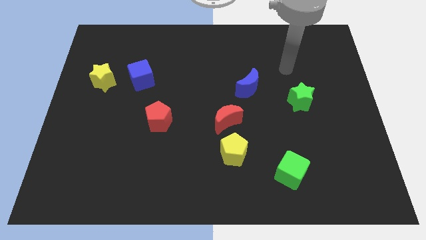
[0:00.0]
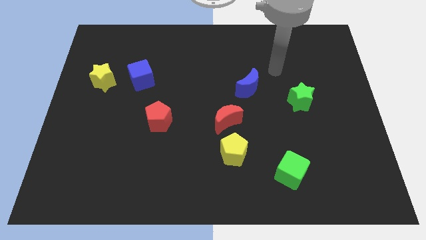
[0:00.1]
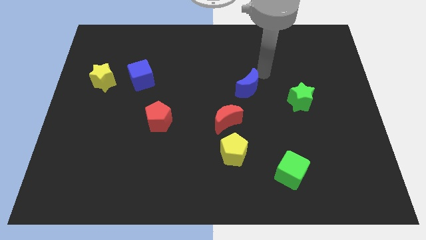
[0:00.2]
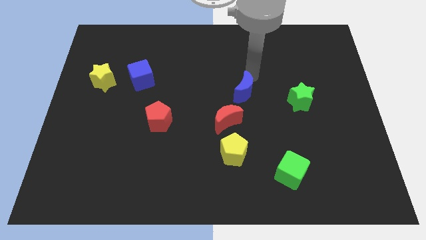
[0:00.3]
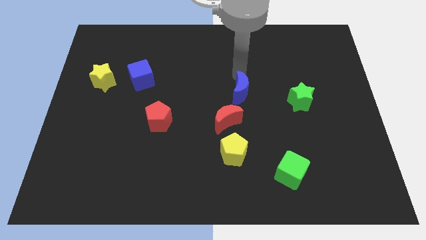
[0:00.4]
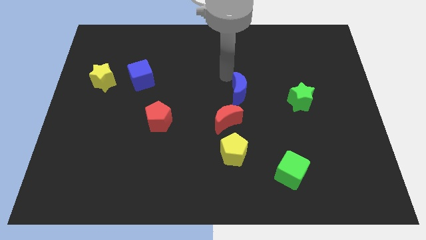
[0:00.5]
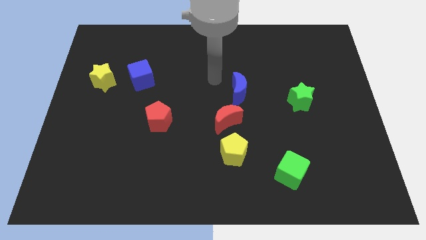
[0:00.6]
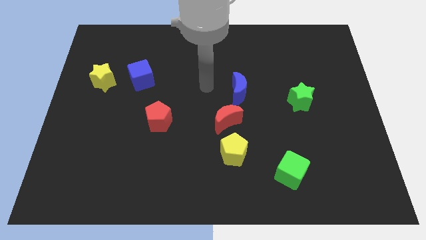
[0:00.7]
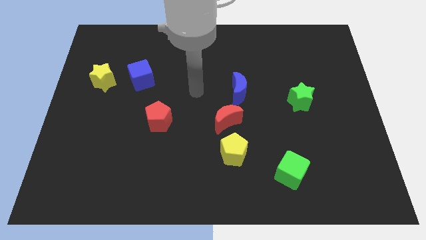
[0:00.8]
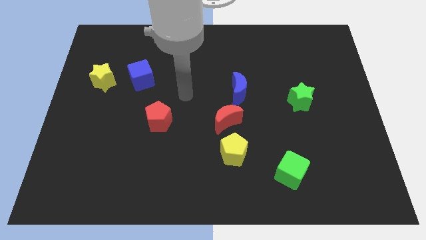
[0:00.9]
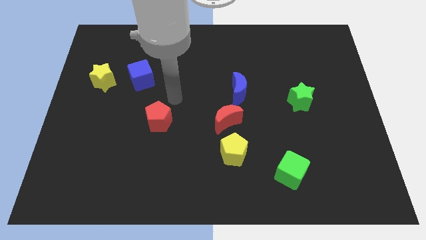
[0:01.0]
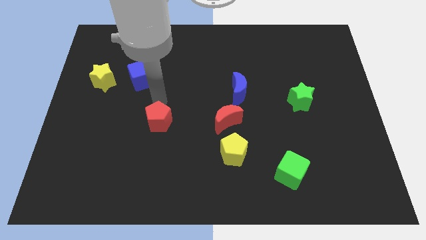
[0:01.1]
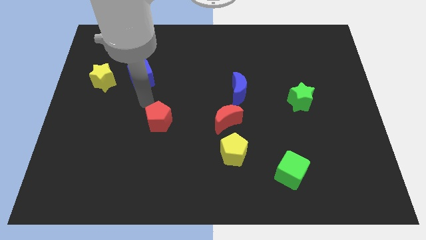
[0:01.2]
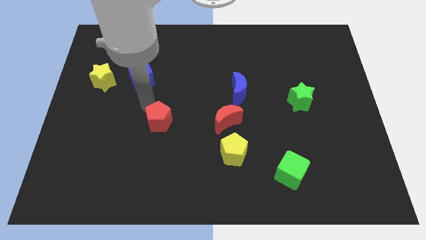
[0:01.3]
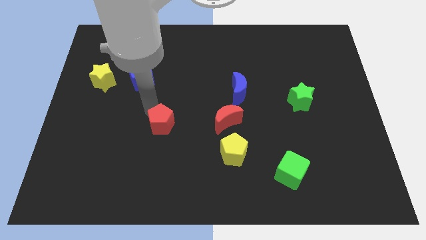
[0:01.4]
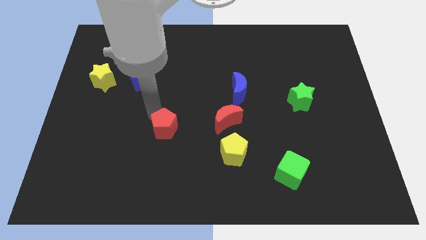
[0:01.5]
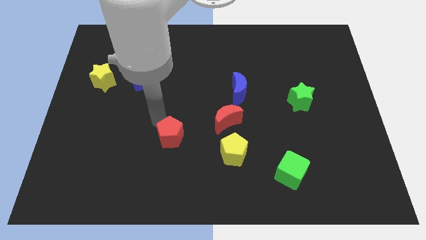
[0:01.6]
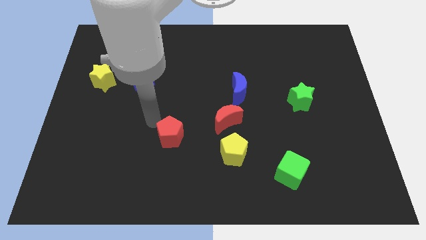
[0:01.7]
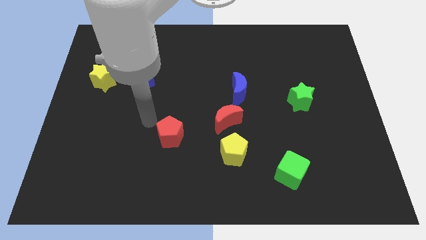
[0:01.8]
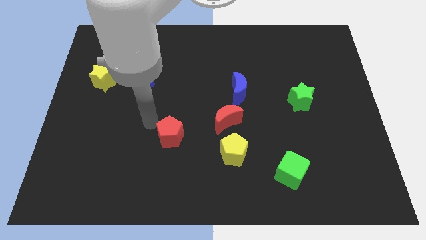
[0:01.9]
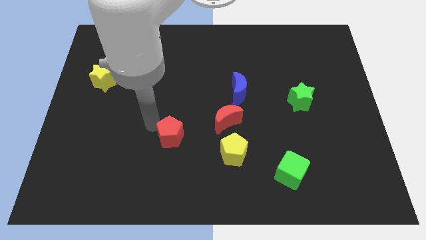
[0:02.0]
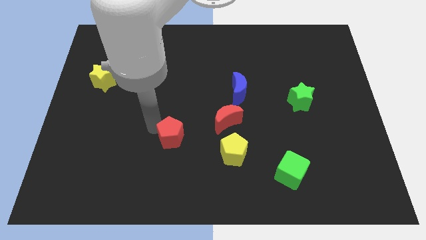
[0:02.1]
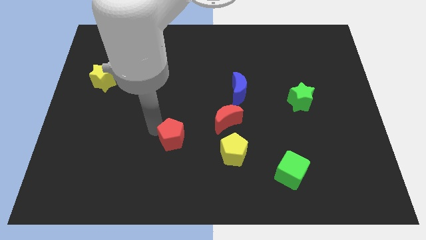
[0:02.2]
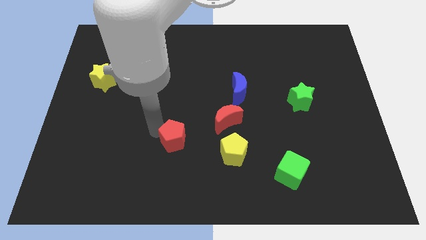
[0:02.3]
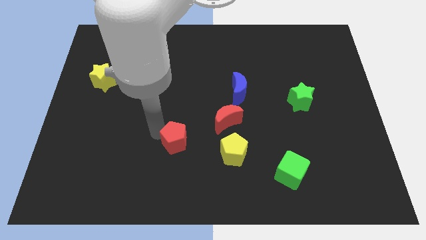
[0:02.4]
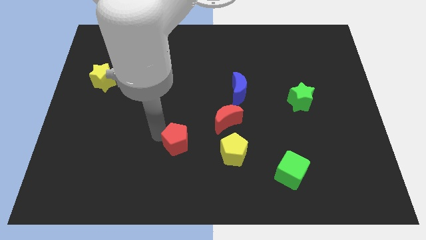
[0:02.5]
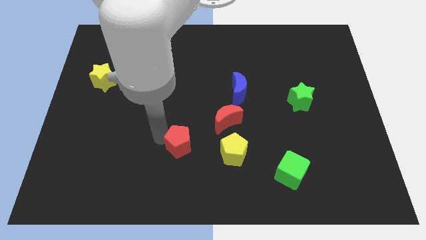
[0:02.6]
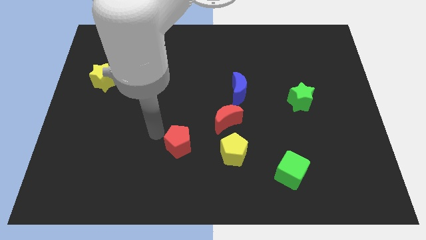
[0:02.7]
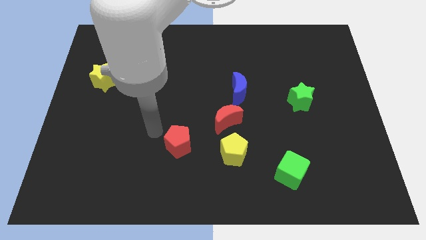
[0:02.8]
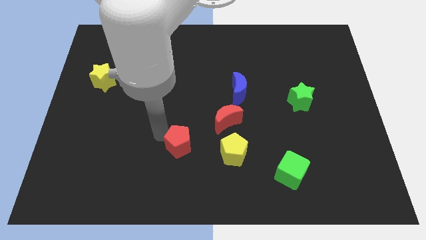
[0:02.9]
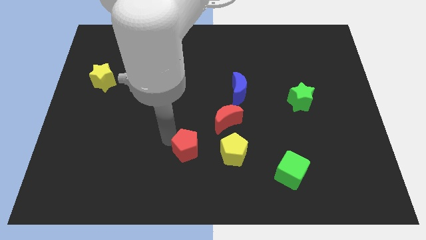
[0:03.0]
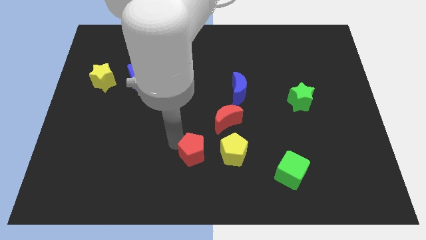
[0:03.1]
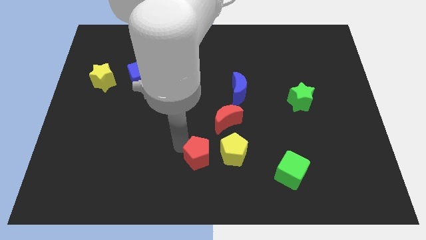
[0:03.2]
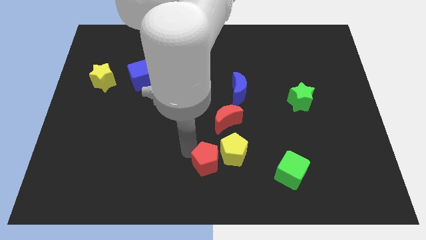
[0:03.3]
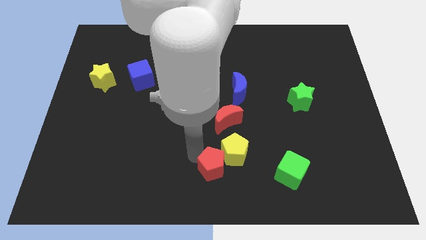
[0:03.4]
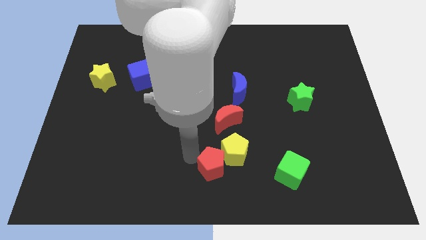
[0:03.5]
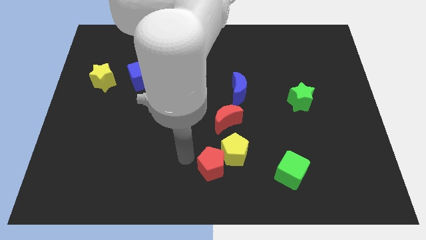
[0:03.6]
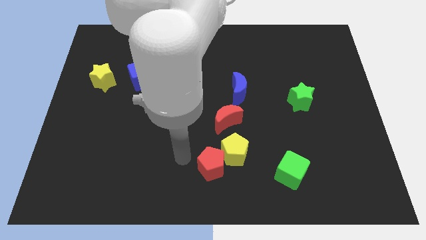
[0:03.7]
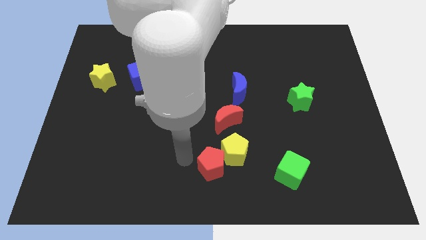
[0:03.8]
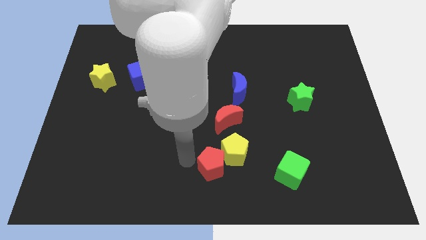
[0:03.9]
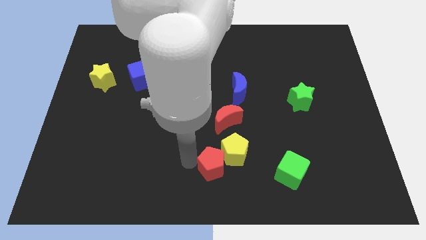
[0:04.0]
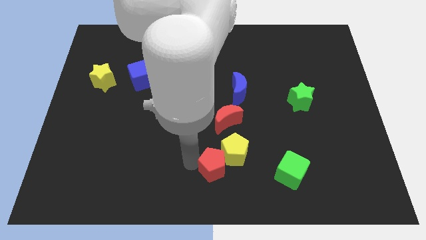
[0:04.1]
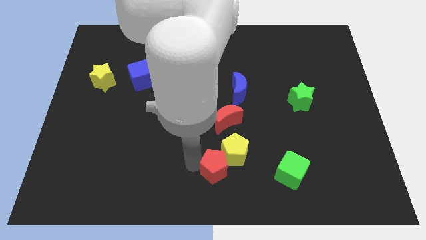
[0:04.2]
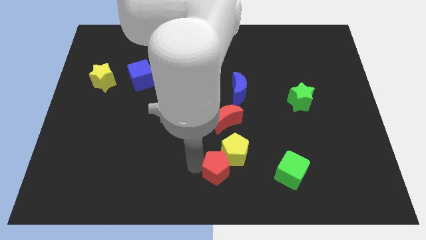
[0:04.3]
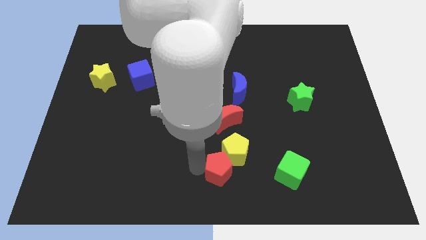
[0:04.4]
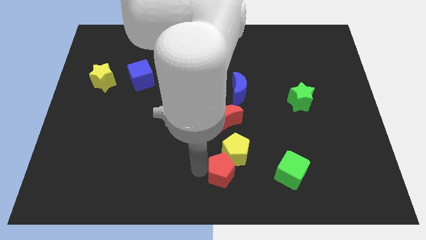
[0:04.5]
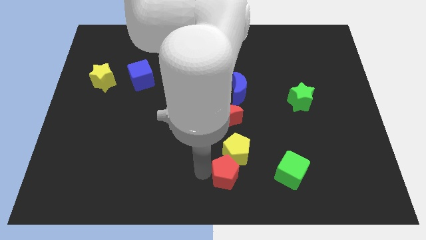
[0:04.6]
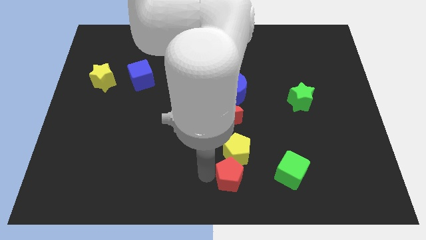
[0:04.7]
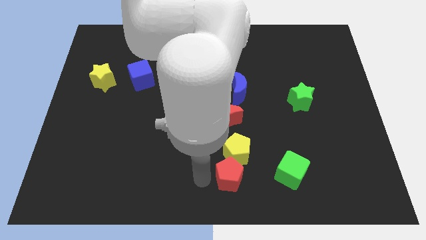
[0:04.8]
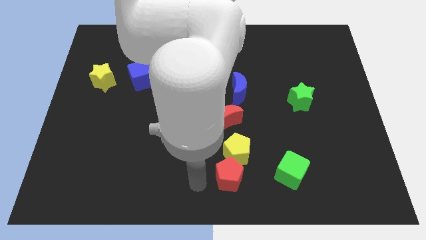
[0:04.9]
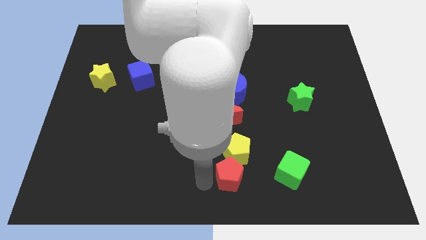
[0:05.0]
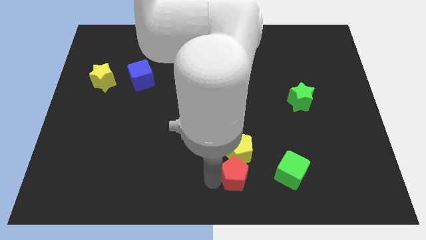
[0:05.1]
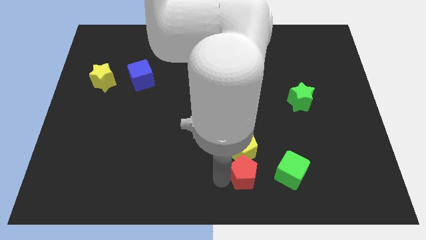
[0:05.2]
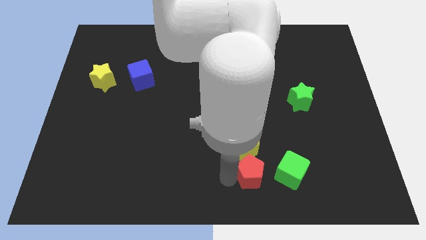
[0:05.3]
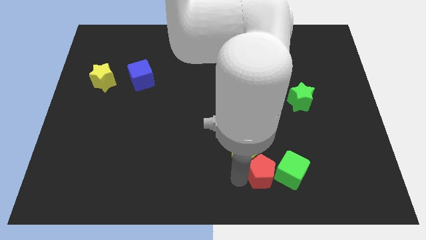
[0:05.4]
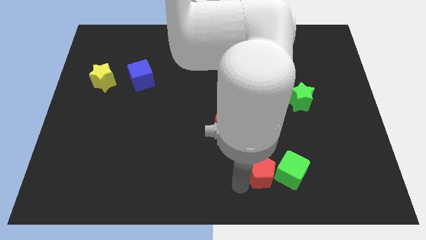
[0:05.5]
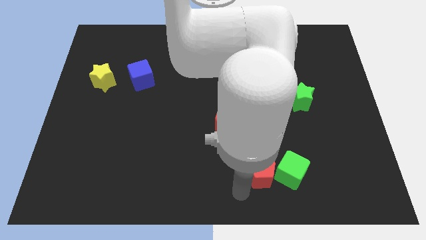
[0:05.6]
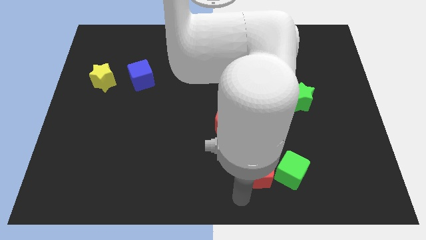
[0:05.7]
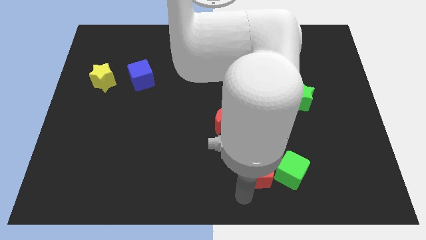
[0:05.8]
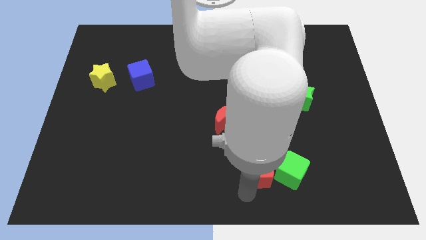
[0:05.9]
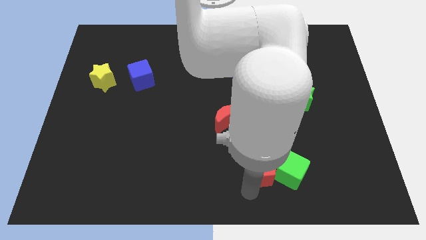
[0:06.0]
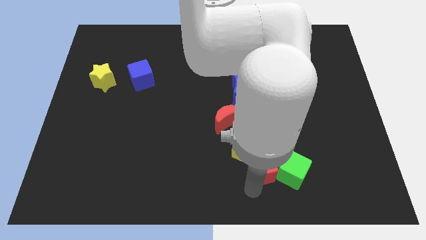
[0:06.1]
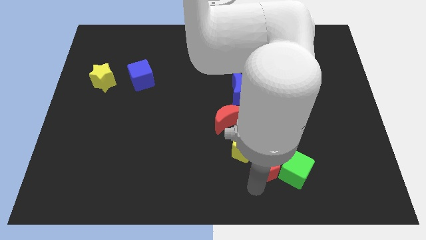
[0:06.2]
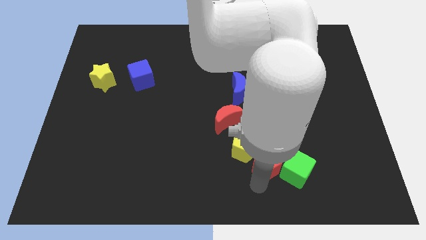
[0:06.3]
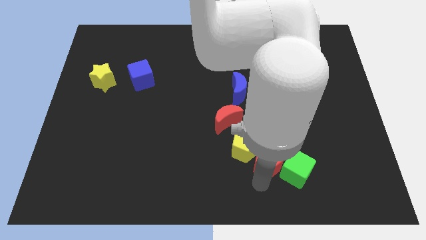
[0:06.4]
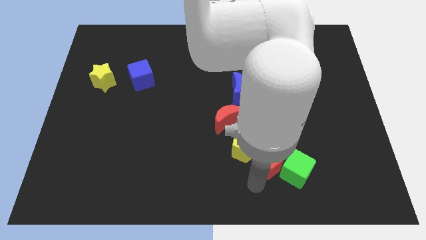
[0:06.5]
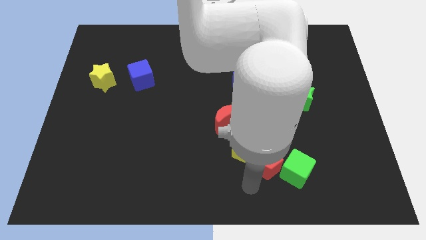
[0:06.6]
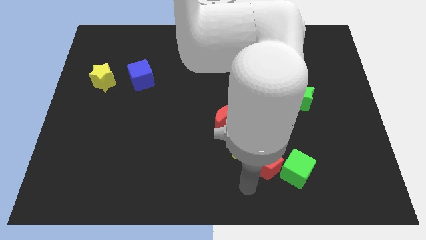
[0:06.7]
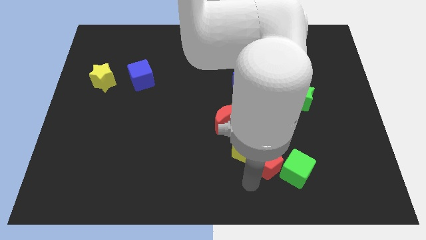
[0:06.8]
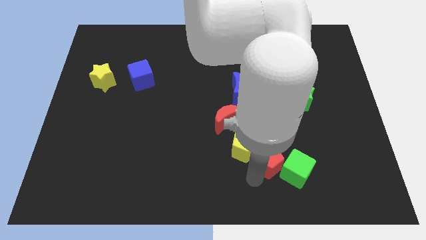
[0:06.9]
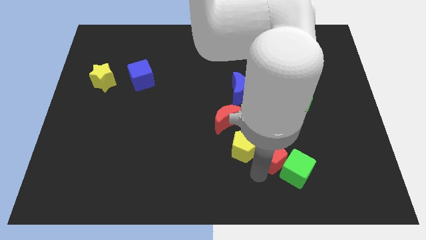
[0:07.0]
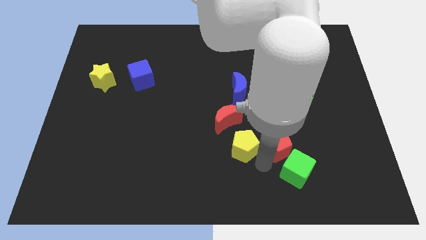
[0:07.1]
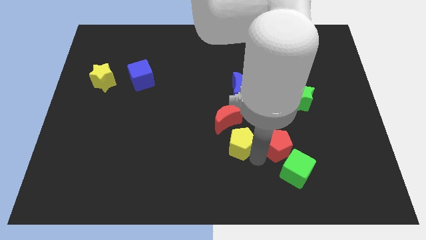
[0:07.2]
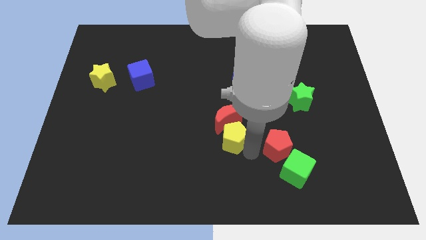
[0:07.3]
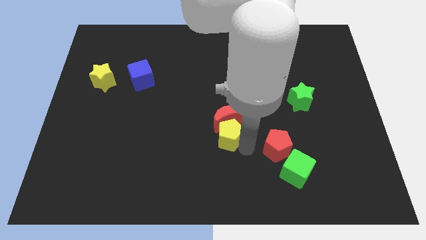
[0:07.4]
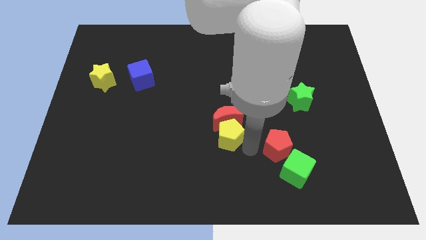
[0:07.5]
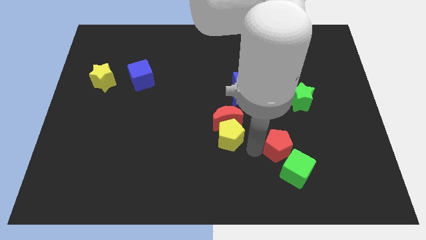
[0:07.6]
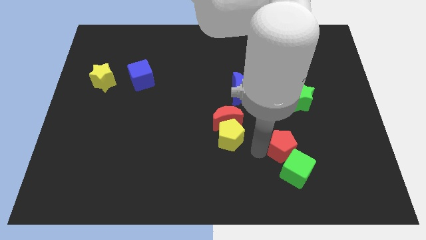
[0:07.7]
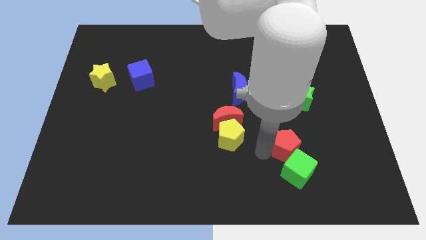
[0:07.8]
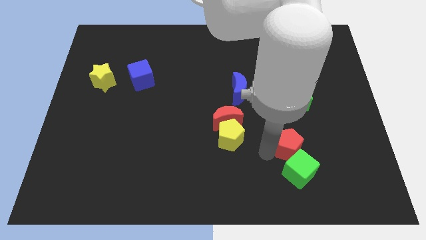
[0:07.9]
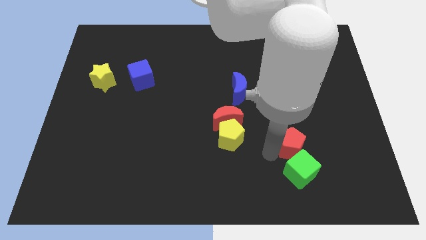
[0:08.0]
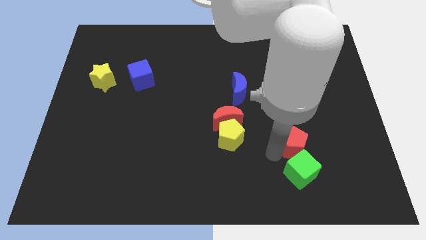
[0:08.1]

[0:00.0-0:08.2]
put the red pentagon to the top right side of the green cube
